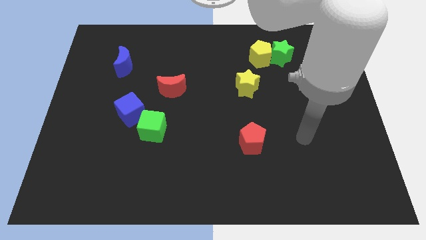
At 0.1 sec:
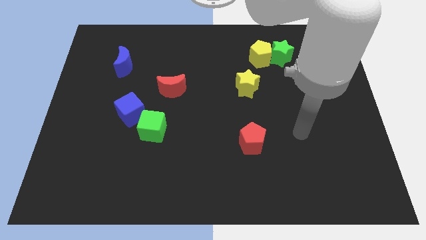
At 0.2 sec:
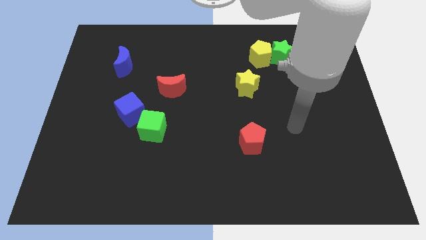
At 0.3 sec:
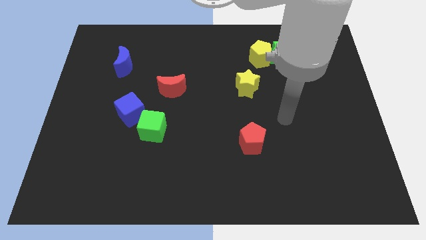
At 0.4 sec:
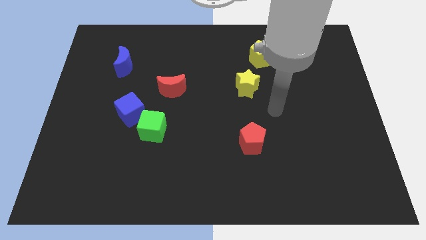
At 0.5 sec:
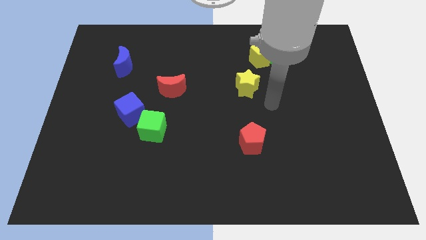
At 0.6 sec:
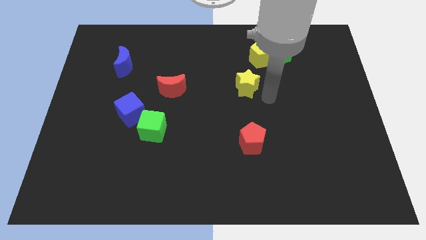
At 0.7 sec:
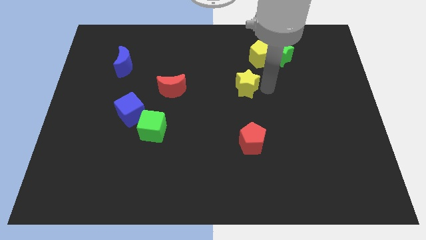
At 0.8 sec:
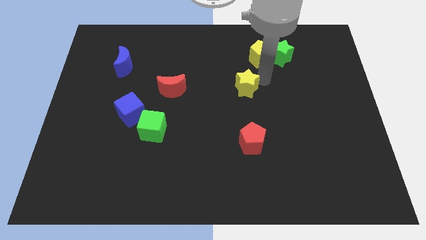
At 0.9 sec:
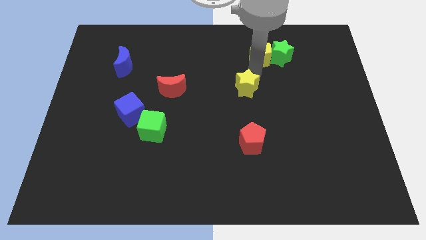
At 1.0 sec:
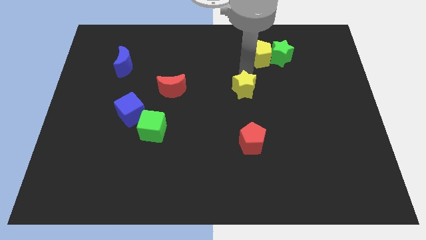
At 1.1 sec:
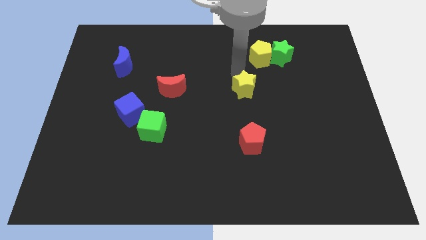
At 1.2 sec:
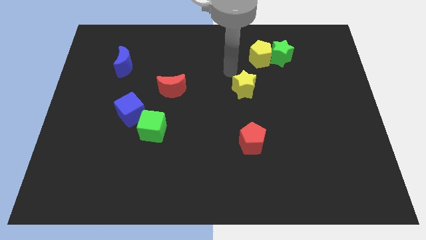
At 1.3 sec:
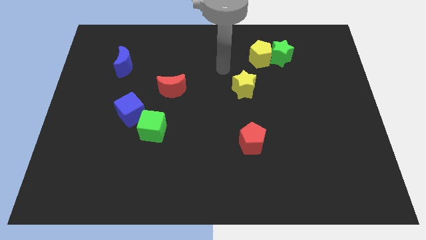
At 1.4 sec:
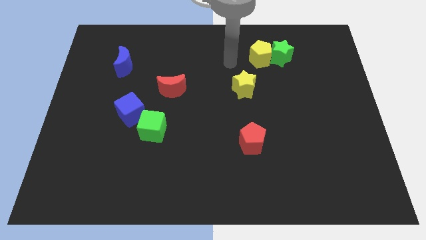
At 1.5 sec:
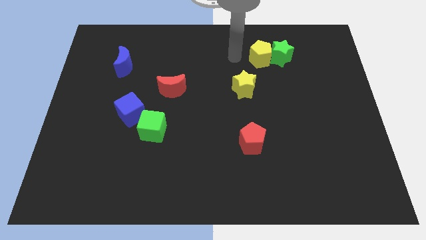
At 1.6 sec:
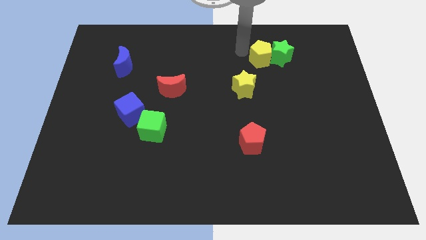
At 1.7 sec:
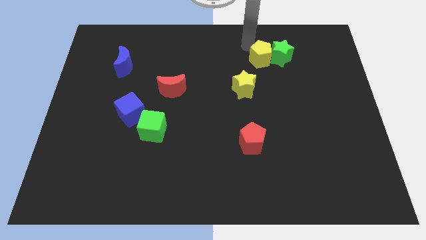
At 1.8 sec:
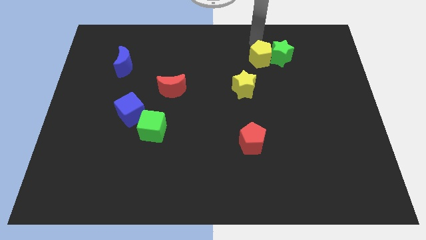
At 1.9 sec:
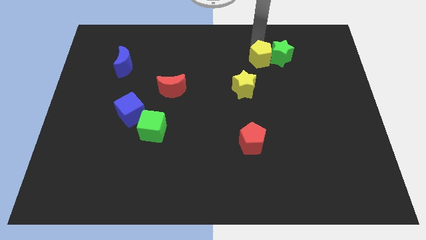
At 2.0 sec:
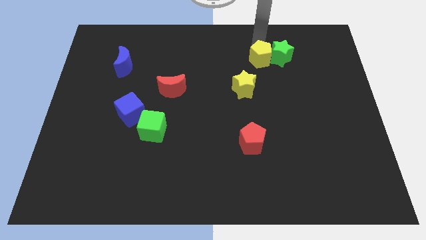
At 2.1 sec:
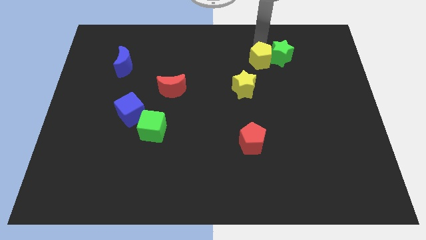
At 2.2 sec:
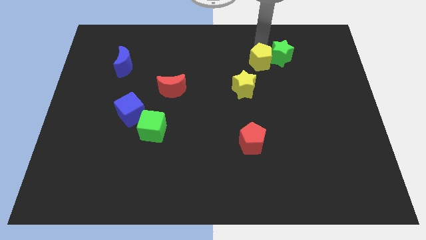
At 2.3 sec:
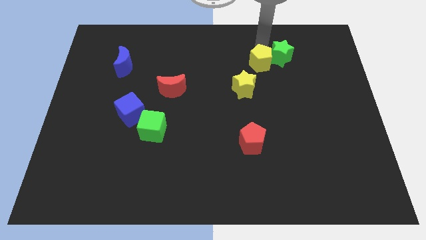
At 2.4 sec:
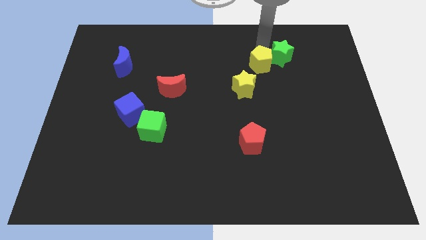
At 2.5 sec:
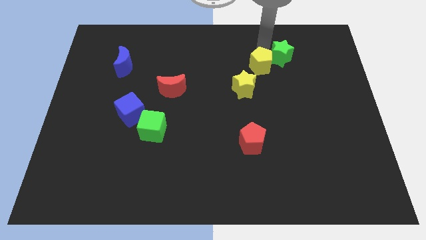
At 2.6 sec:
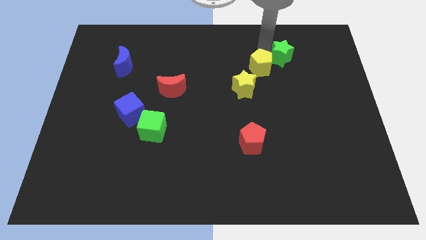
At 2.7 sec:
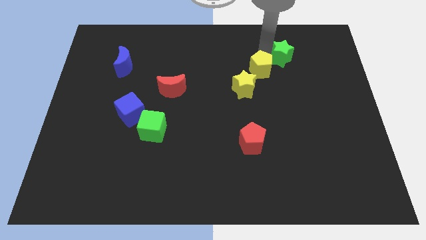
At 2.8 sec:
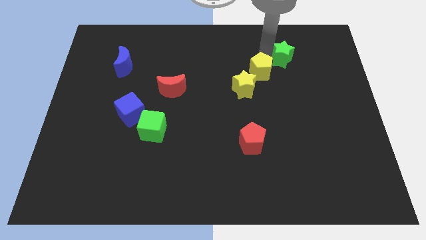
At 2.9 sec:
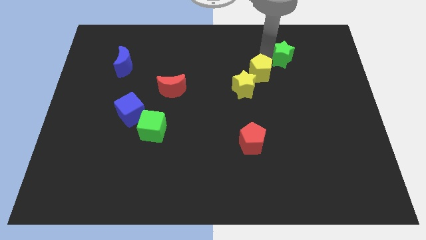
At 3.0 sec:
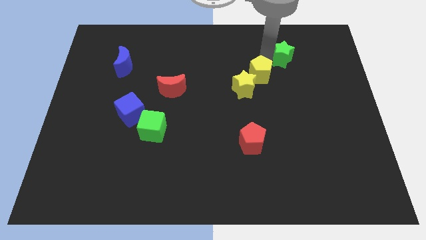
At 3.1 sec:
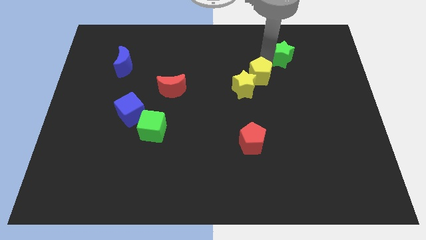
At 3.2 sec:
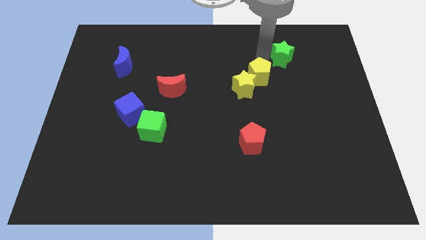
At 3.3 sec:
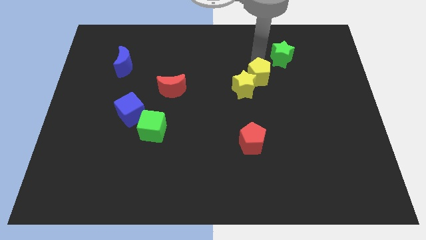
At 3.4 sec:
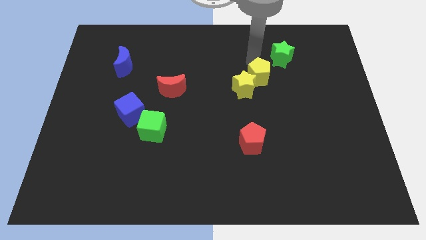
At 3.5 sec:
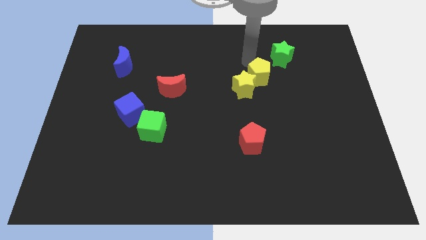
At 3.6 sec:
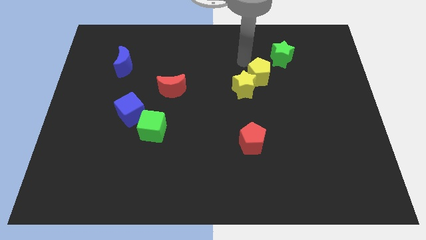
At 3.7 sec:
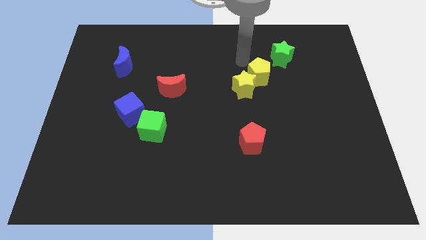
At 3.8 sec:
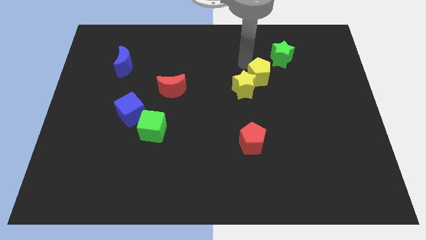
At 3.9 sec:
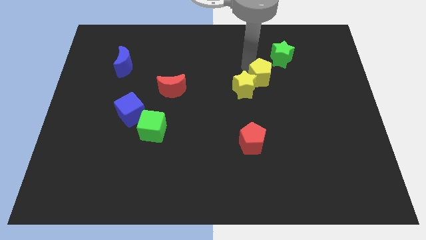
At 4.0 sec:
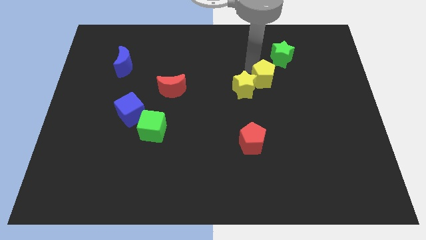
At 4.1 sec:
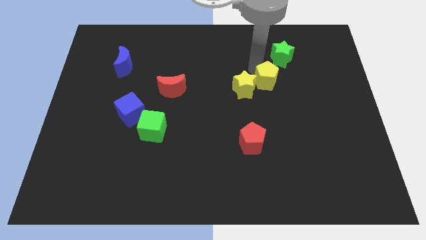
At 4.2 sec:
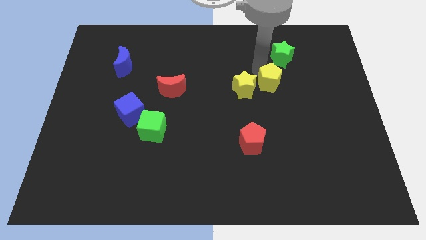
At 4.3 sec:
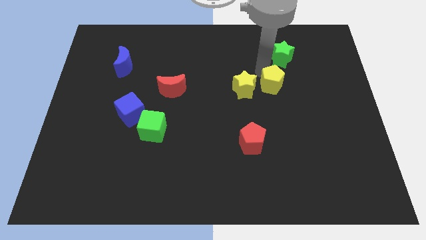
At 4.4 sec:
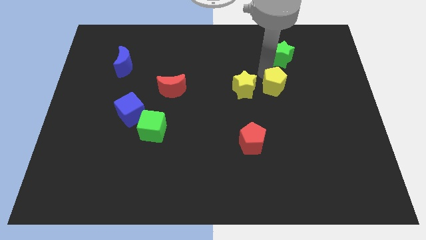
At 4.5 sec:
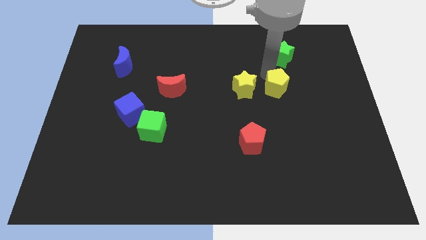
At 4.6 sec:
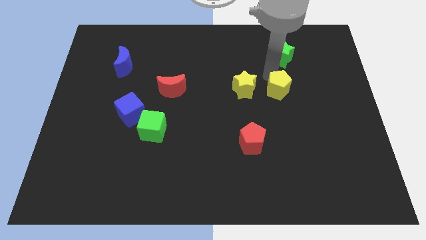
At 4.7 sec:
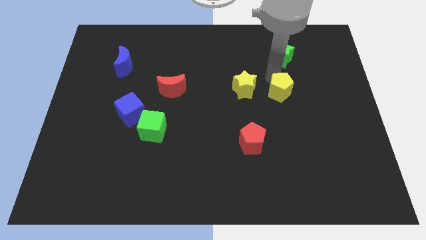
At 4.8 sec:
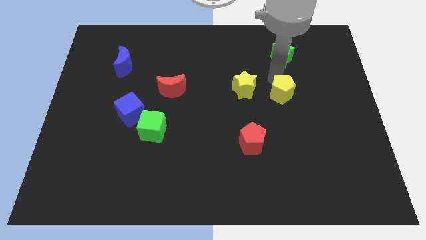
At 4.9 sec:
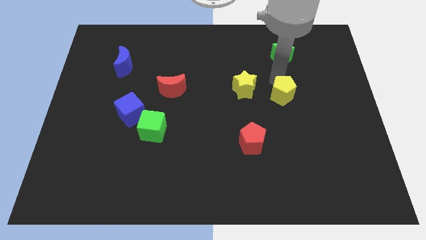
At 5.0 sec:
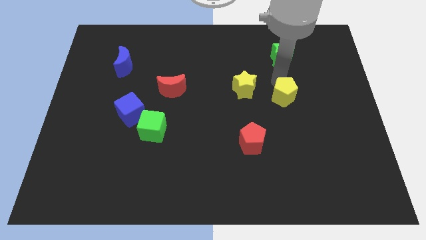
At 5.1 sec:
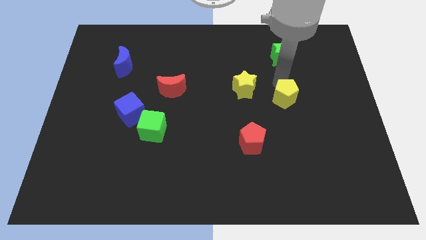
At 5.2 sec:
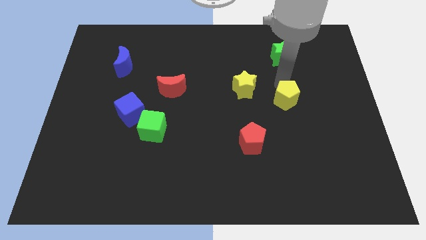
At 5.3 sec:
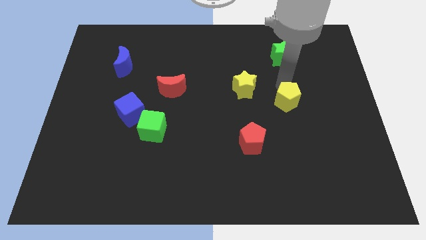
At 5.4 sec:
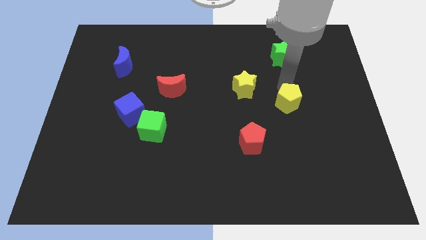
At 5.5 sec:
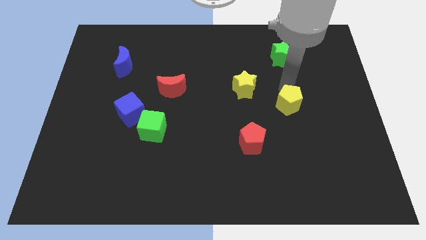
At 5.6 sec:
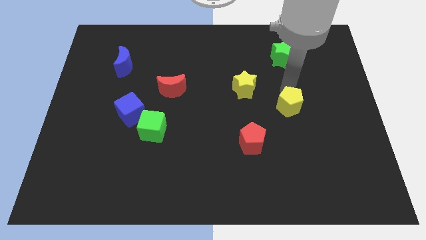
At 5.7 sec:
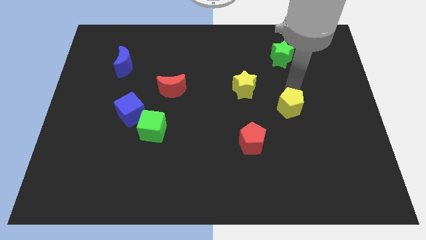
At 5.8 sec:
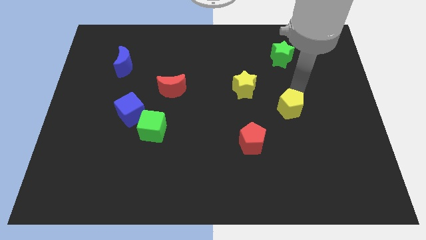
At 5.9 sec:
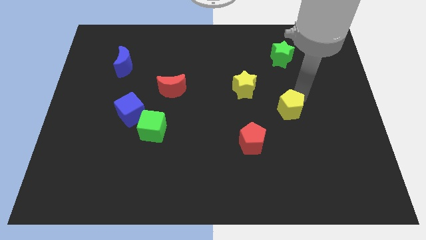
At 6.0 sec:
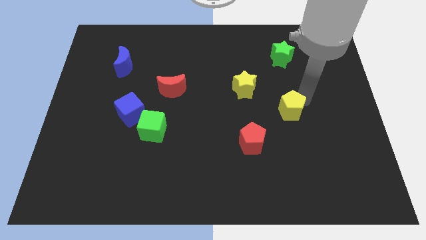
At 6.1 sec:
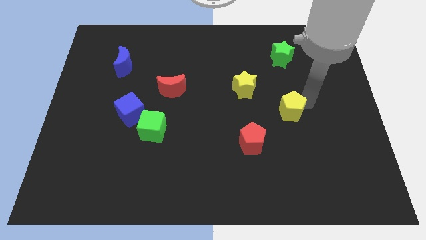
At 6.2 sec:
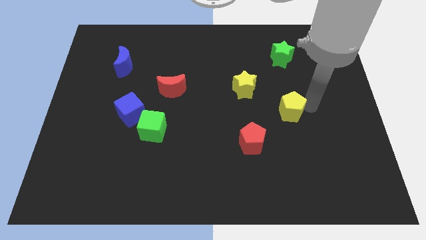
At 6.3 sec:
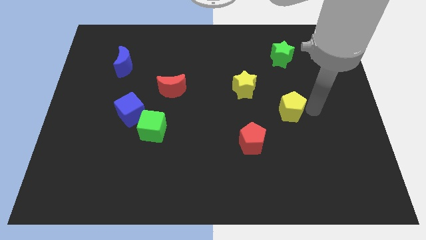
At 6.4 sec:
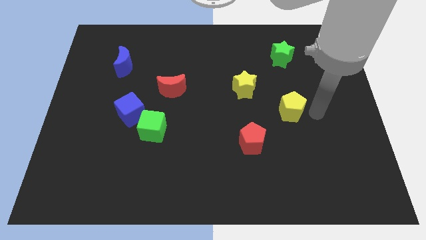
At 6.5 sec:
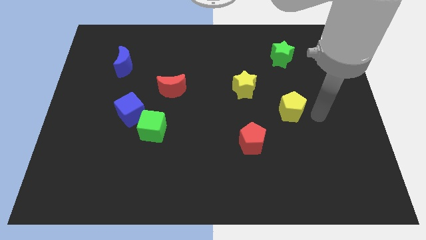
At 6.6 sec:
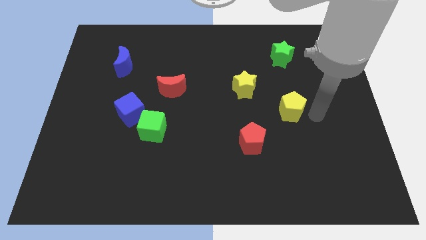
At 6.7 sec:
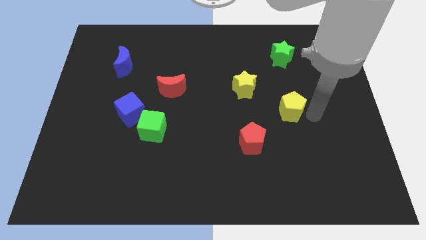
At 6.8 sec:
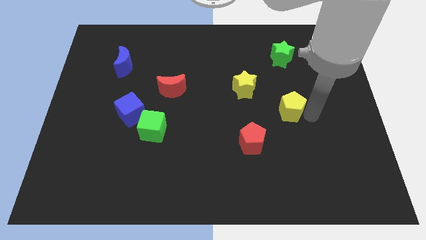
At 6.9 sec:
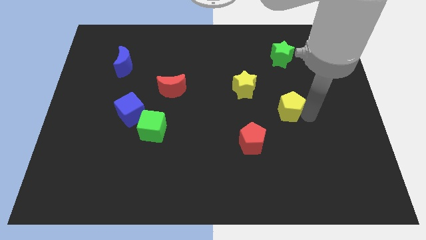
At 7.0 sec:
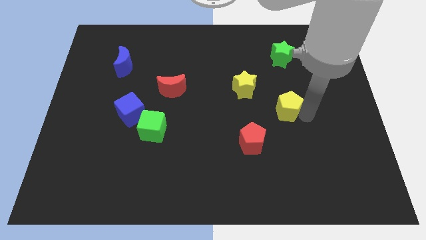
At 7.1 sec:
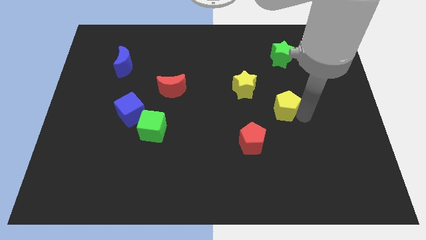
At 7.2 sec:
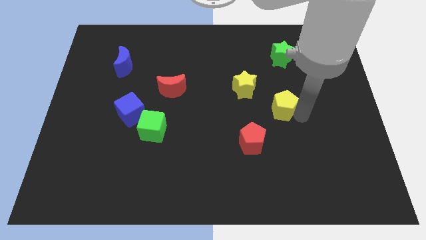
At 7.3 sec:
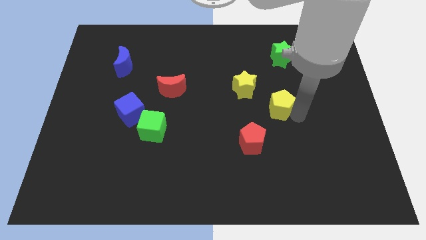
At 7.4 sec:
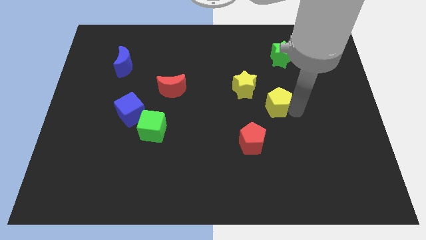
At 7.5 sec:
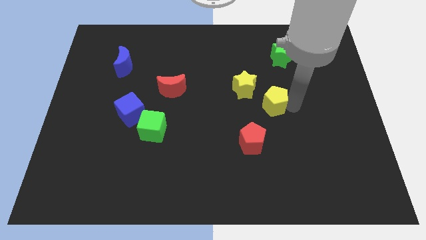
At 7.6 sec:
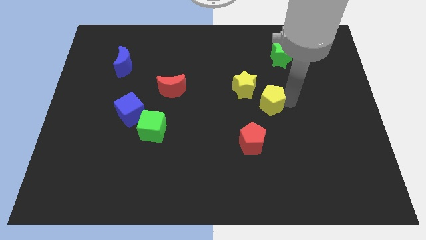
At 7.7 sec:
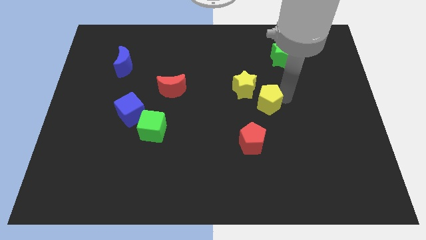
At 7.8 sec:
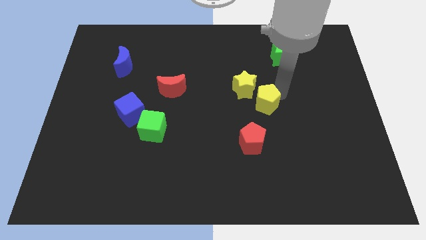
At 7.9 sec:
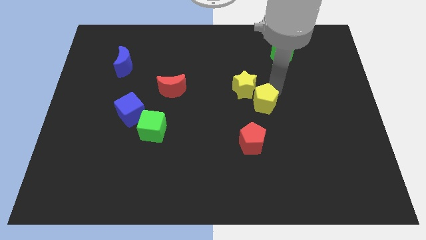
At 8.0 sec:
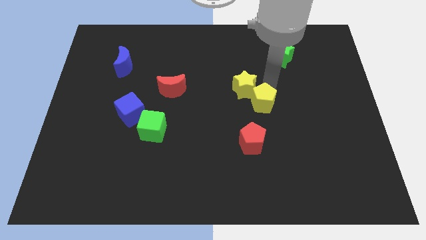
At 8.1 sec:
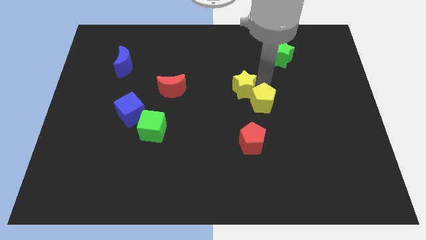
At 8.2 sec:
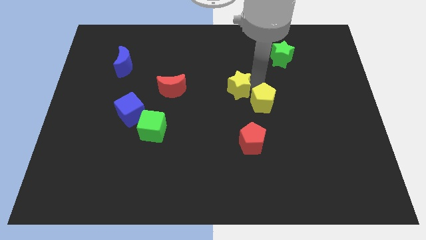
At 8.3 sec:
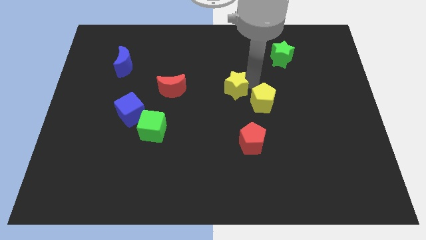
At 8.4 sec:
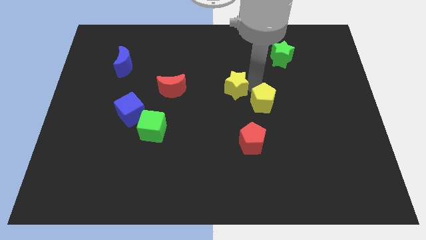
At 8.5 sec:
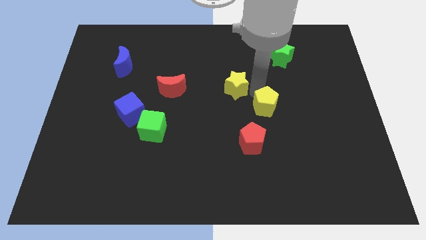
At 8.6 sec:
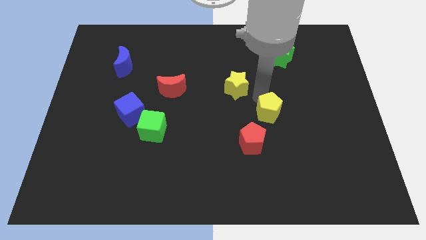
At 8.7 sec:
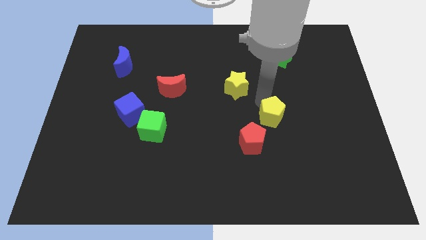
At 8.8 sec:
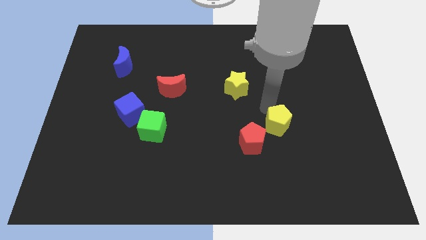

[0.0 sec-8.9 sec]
push the yellow pentagon down
